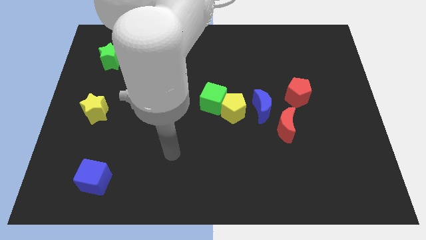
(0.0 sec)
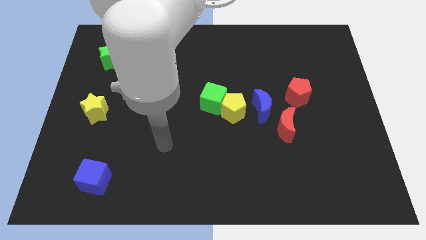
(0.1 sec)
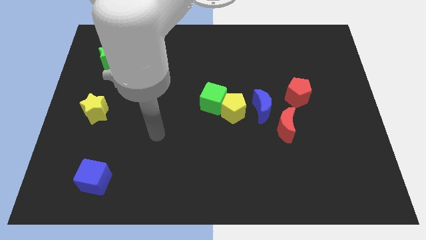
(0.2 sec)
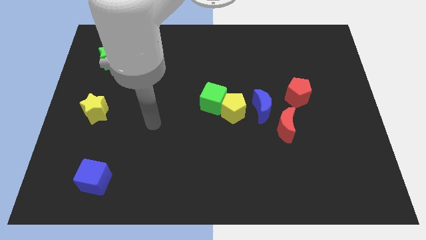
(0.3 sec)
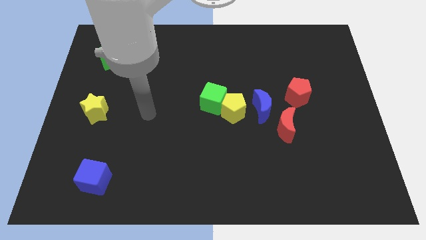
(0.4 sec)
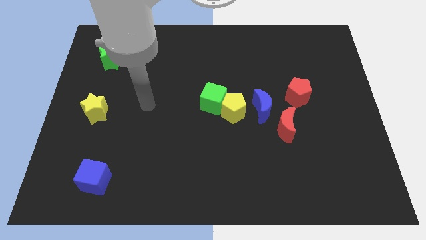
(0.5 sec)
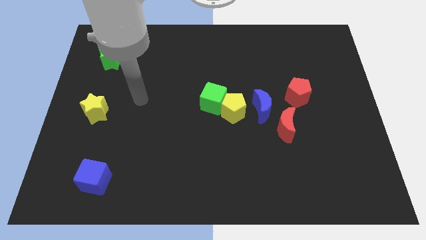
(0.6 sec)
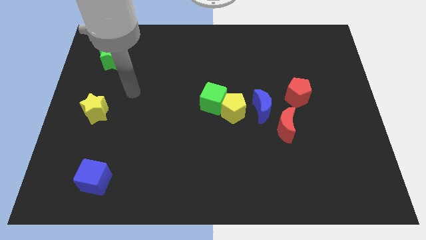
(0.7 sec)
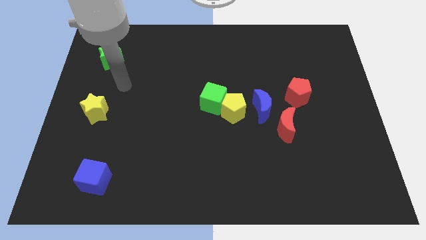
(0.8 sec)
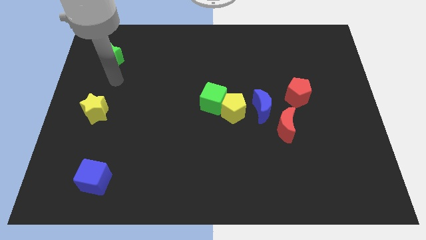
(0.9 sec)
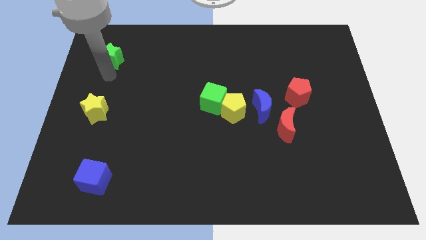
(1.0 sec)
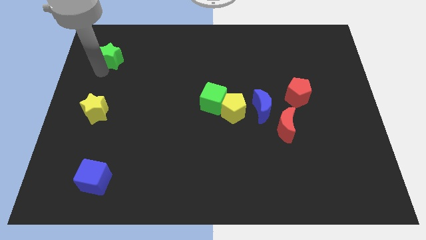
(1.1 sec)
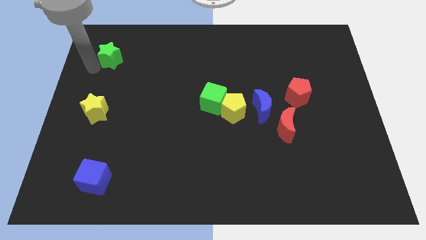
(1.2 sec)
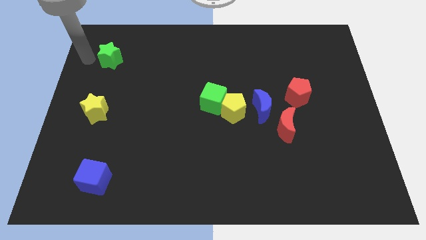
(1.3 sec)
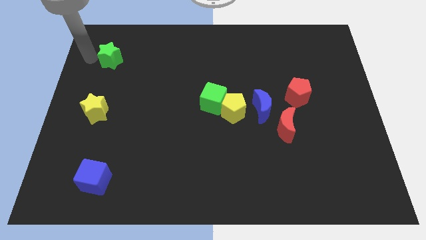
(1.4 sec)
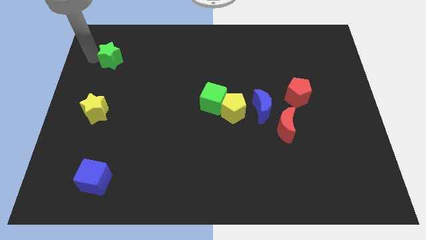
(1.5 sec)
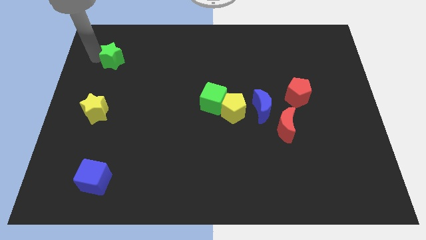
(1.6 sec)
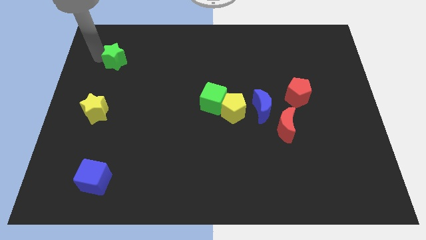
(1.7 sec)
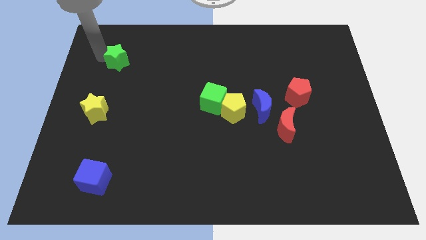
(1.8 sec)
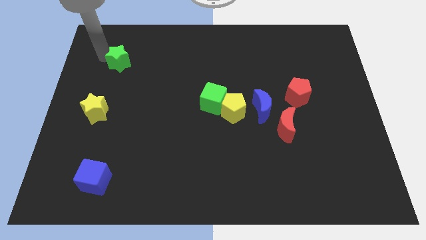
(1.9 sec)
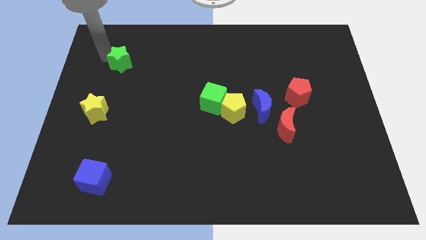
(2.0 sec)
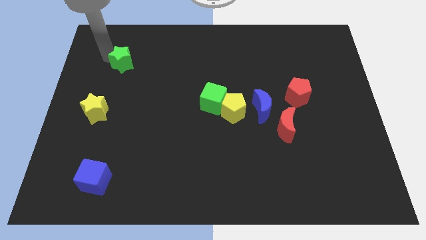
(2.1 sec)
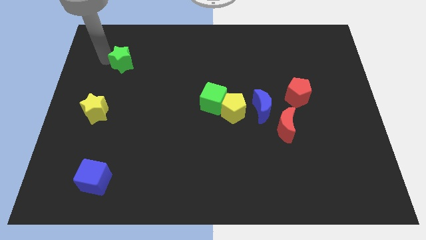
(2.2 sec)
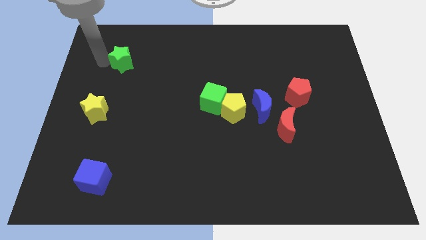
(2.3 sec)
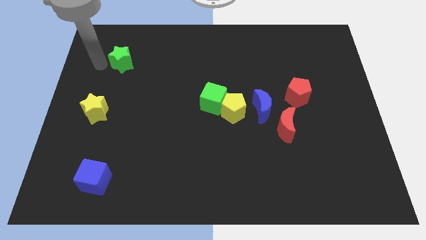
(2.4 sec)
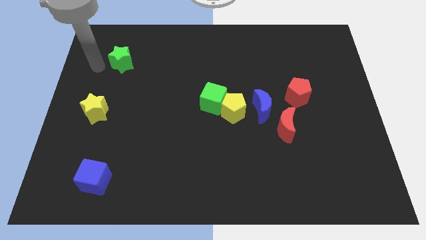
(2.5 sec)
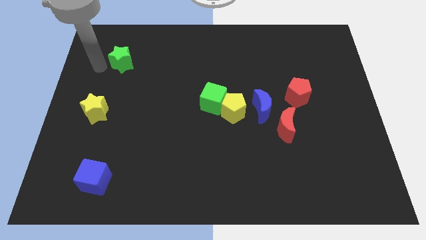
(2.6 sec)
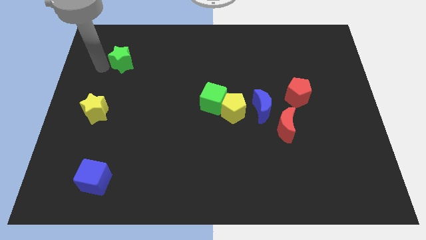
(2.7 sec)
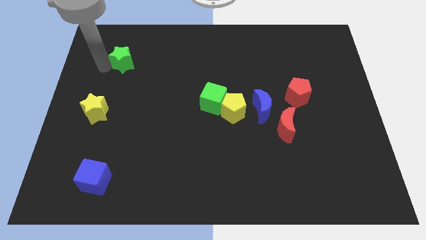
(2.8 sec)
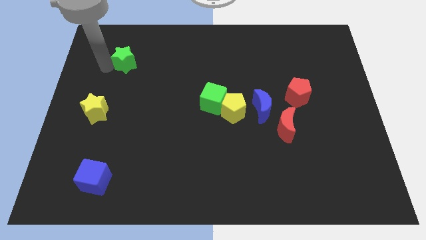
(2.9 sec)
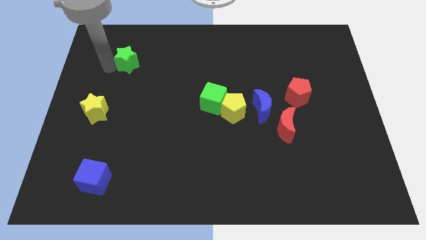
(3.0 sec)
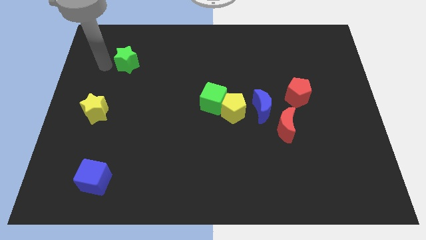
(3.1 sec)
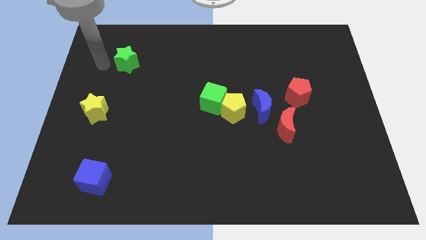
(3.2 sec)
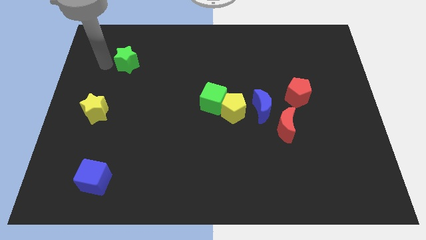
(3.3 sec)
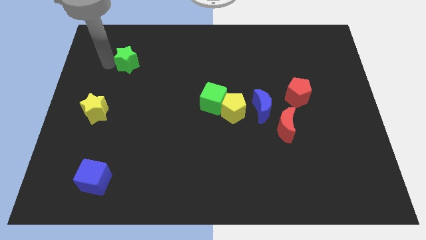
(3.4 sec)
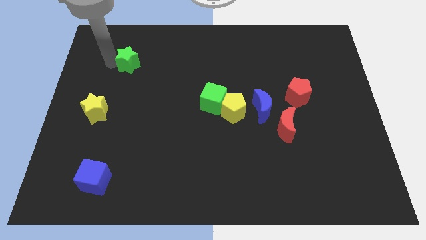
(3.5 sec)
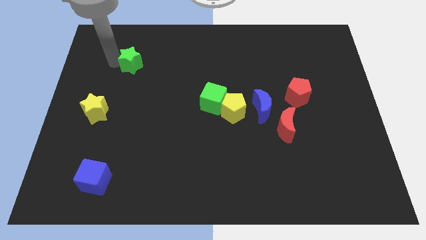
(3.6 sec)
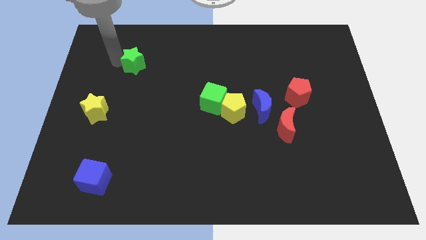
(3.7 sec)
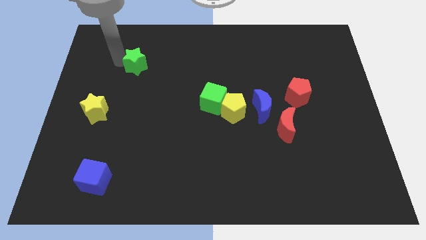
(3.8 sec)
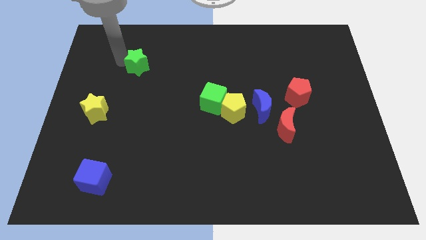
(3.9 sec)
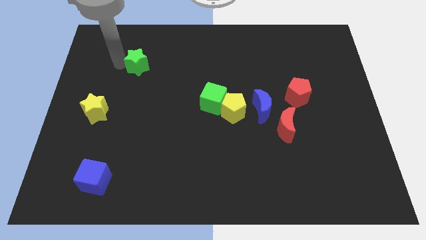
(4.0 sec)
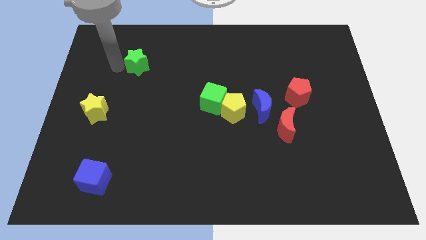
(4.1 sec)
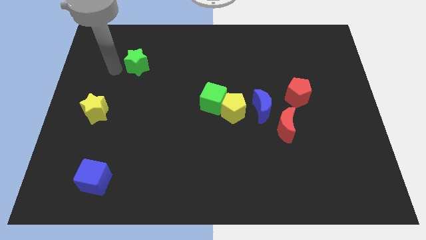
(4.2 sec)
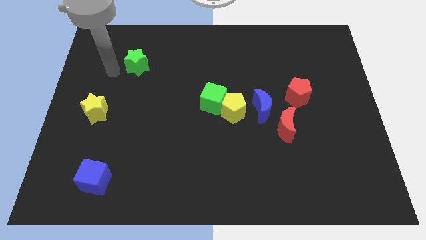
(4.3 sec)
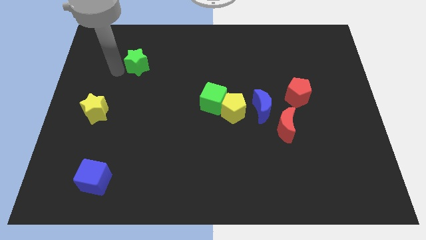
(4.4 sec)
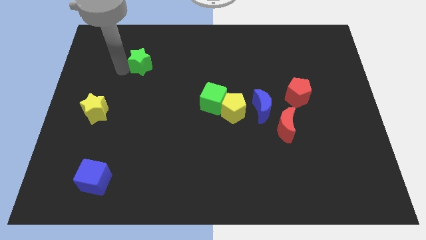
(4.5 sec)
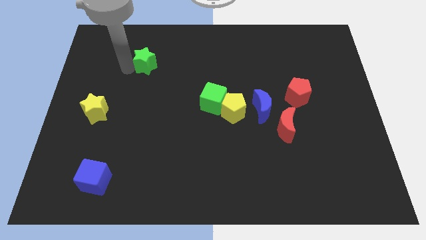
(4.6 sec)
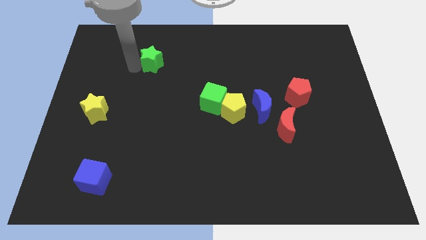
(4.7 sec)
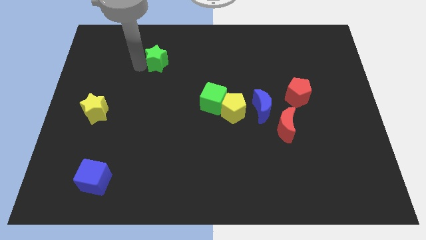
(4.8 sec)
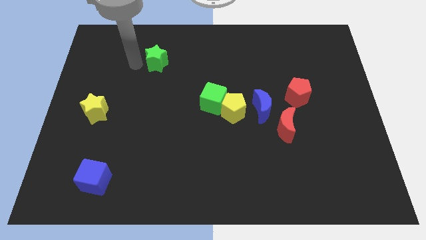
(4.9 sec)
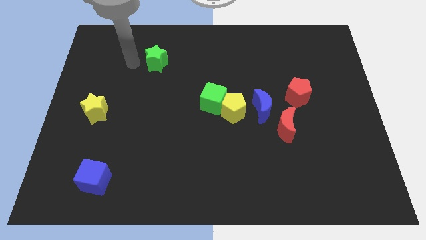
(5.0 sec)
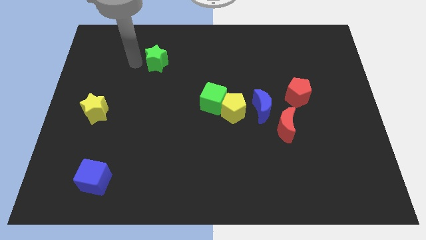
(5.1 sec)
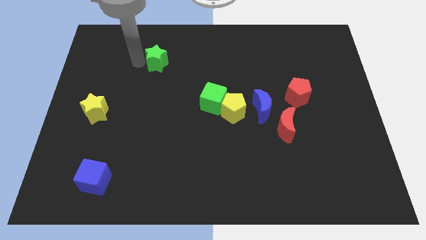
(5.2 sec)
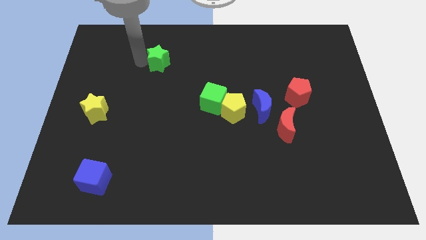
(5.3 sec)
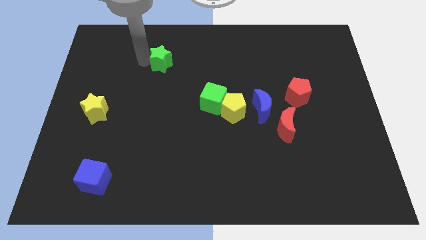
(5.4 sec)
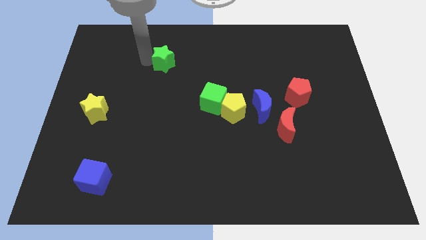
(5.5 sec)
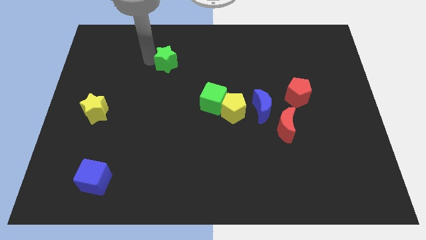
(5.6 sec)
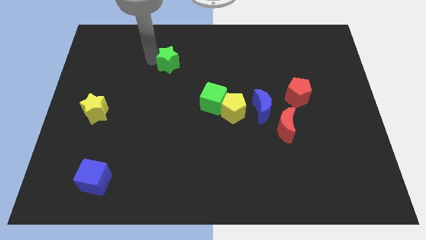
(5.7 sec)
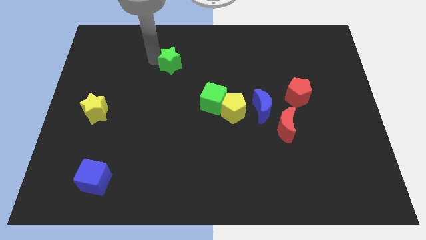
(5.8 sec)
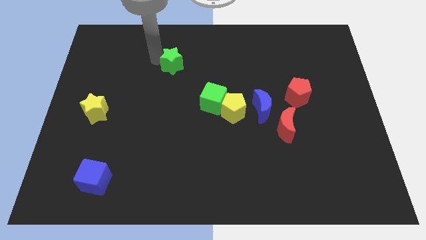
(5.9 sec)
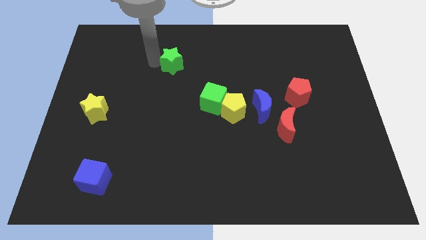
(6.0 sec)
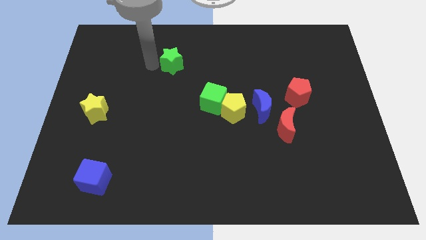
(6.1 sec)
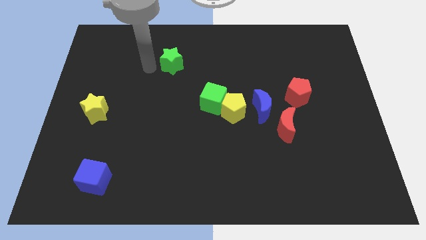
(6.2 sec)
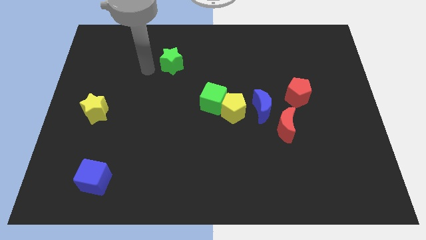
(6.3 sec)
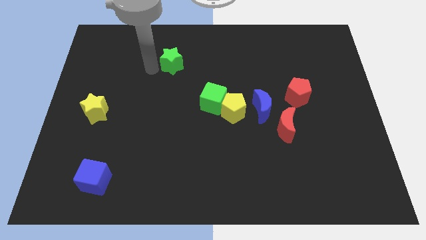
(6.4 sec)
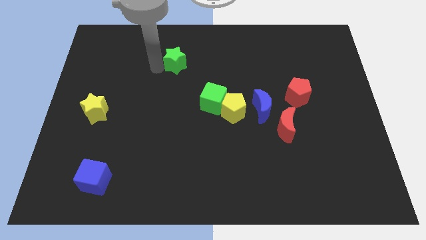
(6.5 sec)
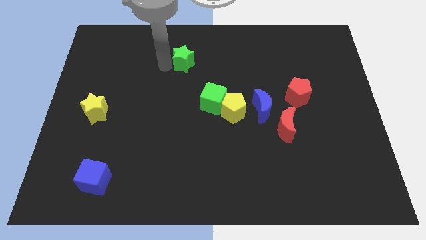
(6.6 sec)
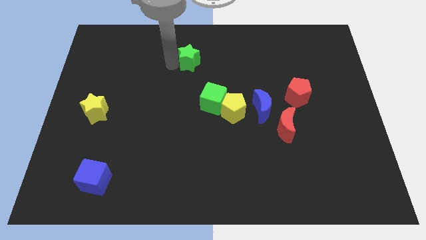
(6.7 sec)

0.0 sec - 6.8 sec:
slide the green star right

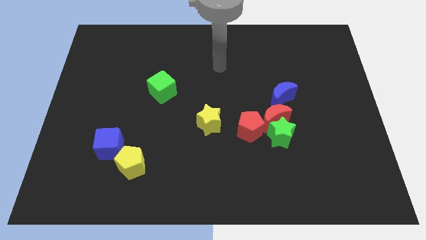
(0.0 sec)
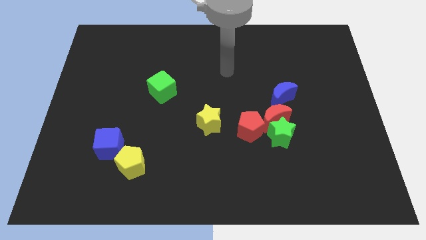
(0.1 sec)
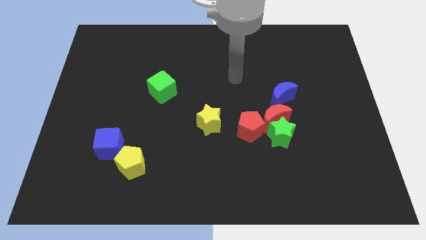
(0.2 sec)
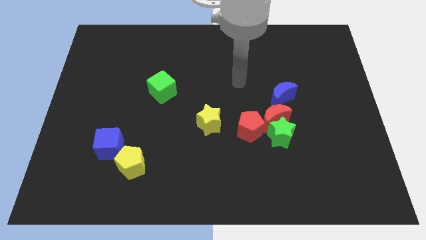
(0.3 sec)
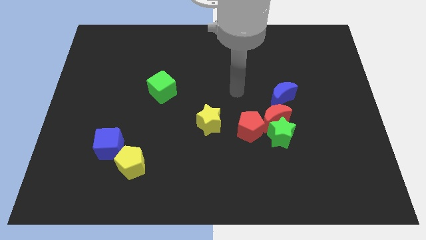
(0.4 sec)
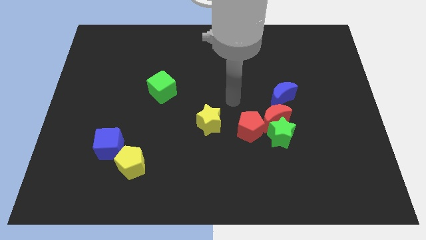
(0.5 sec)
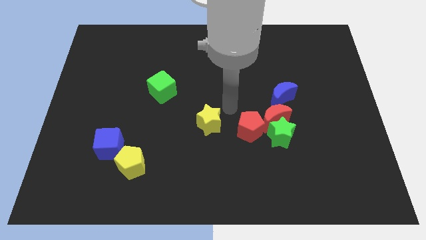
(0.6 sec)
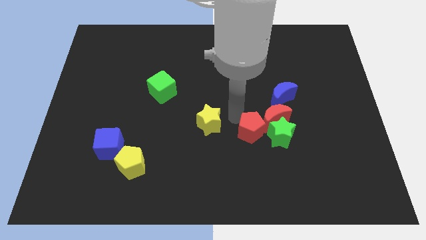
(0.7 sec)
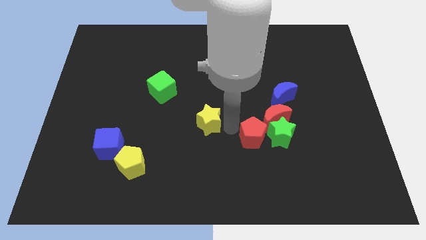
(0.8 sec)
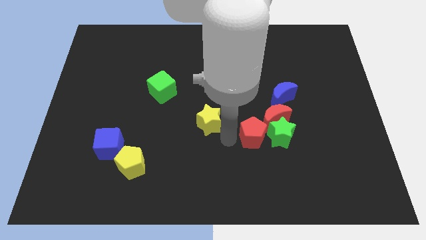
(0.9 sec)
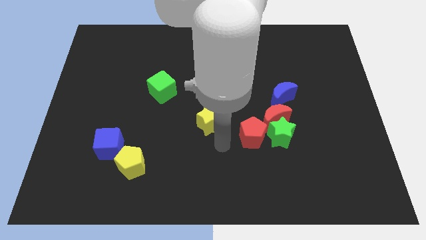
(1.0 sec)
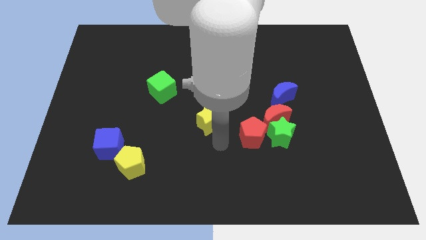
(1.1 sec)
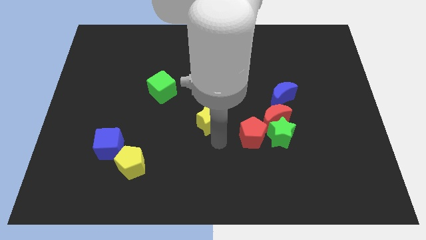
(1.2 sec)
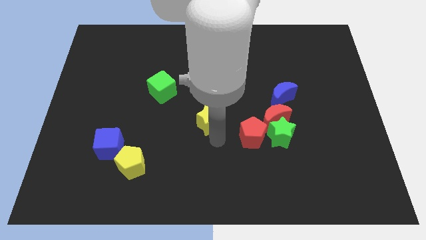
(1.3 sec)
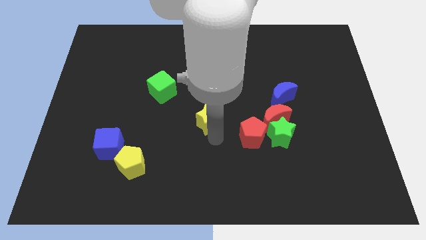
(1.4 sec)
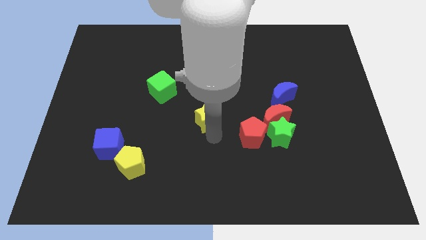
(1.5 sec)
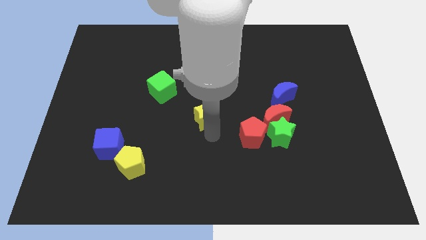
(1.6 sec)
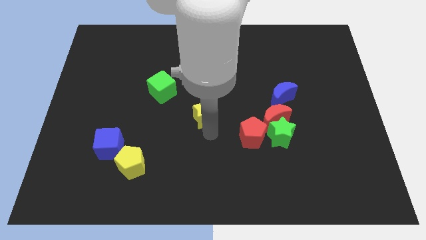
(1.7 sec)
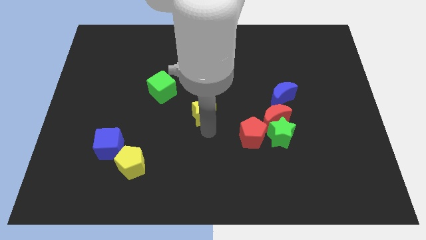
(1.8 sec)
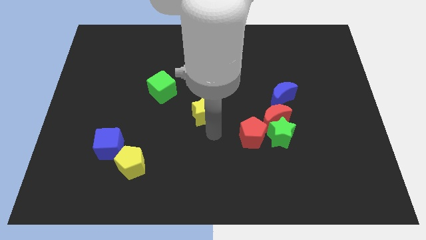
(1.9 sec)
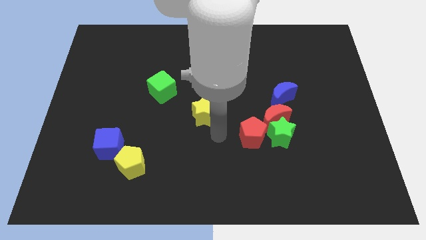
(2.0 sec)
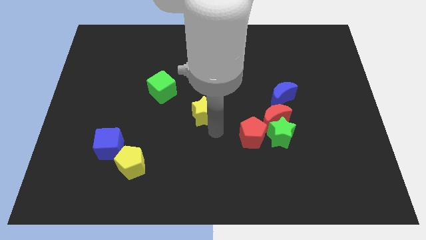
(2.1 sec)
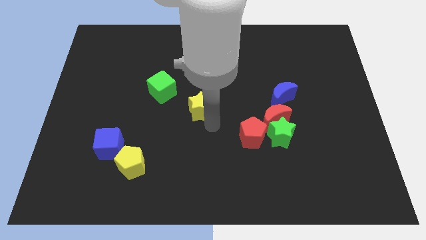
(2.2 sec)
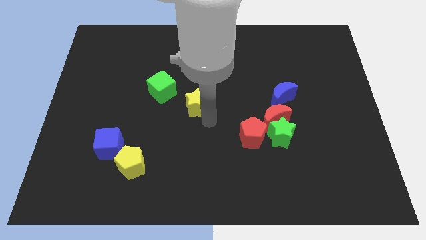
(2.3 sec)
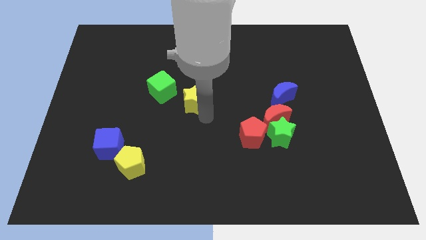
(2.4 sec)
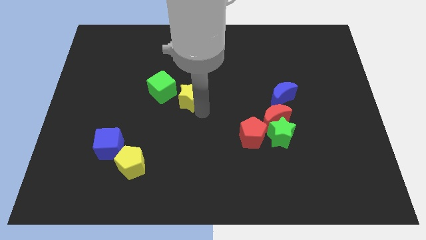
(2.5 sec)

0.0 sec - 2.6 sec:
slightly slide the yellow star upwards and left diagonally
